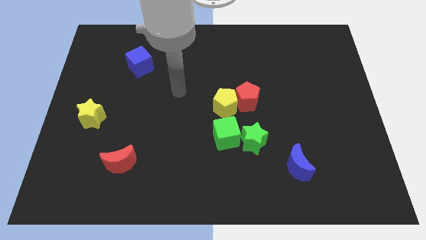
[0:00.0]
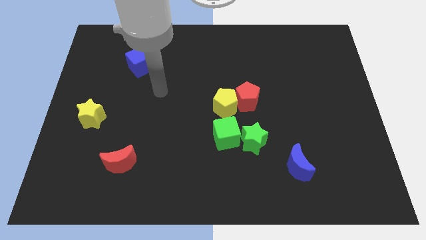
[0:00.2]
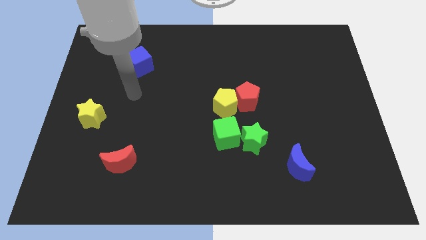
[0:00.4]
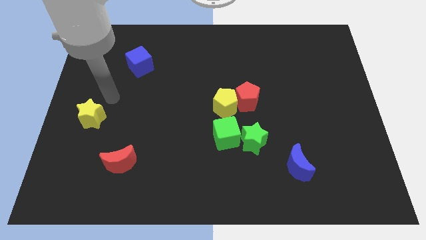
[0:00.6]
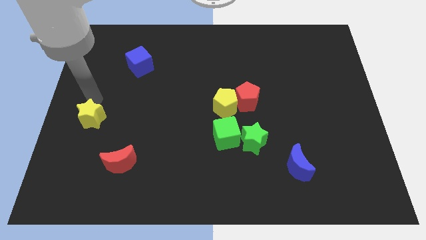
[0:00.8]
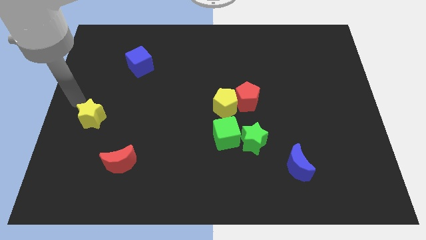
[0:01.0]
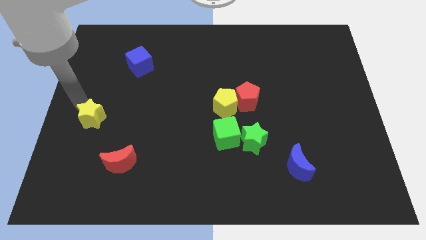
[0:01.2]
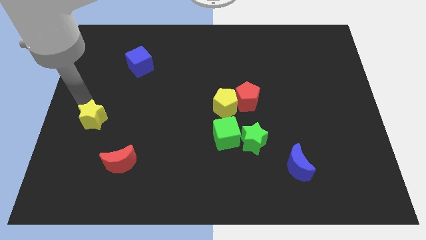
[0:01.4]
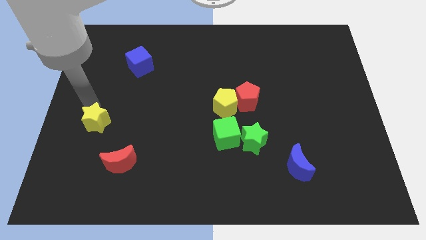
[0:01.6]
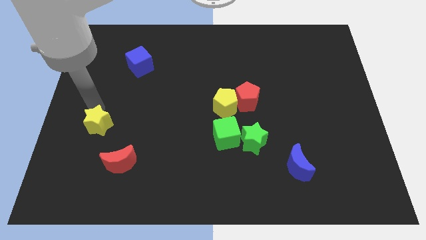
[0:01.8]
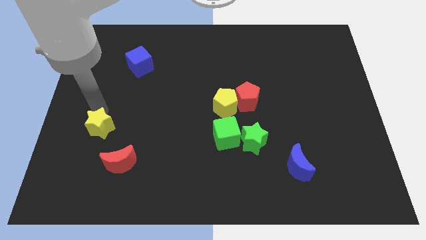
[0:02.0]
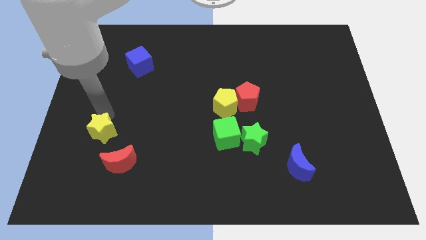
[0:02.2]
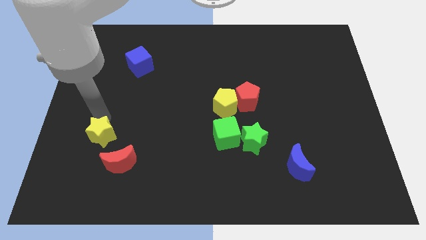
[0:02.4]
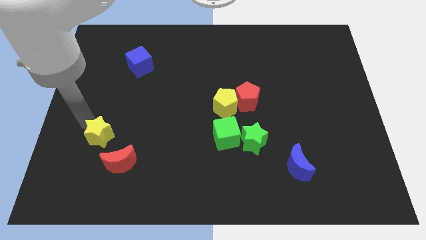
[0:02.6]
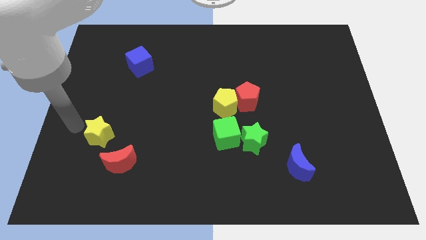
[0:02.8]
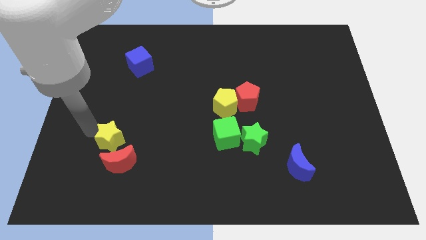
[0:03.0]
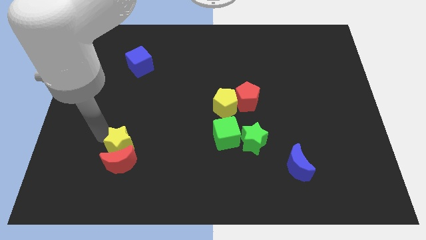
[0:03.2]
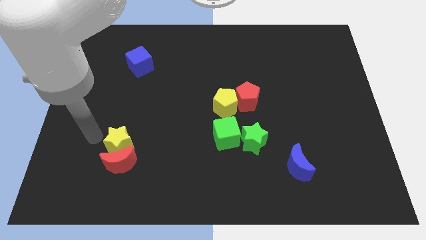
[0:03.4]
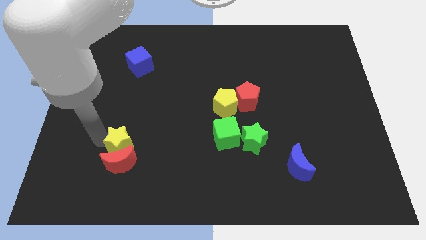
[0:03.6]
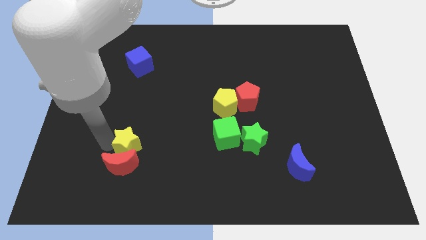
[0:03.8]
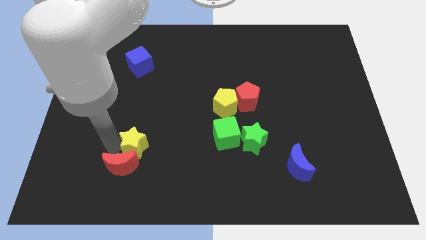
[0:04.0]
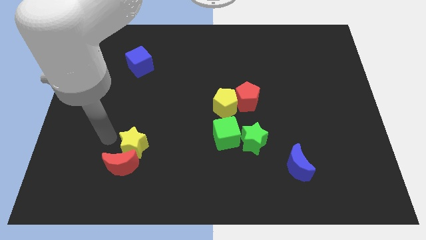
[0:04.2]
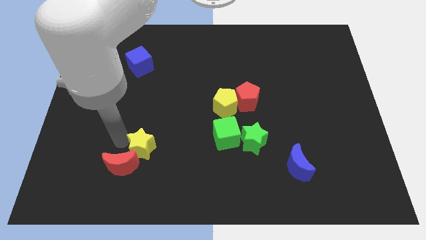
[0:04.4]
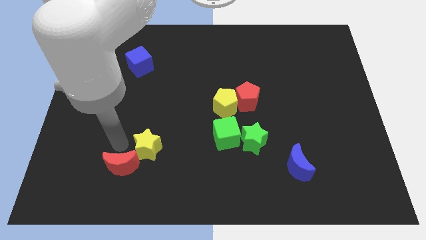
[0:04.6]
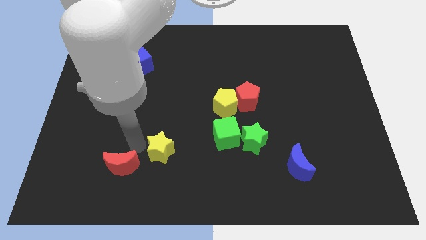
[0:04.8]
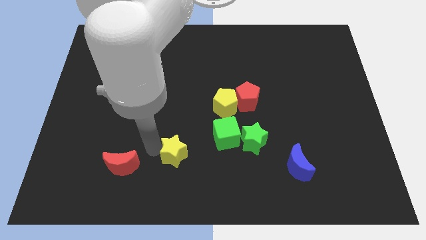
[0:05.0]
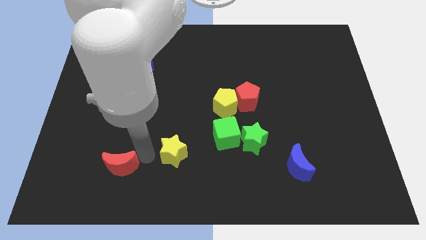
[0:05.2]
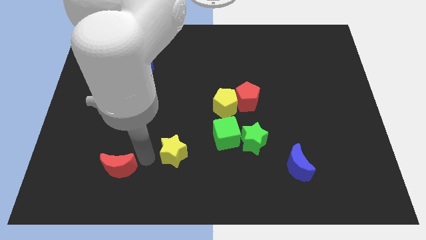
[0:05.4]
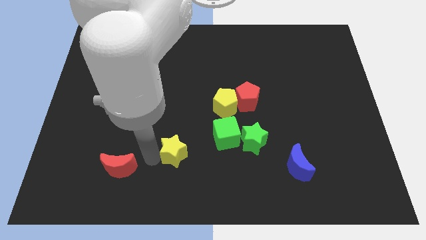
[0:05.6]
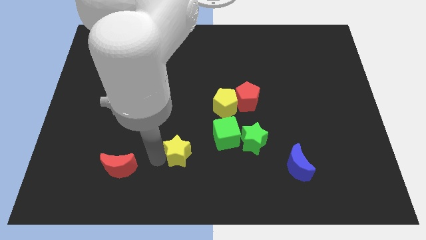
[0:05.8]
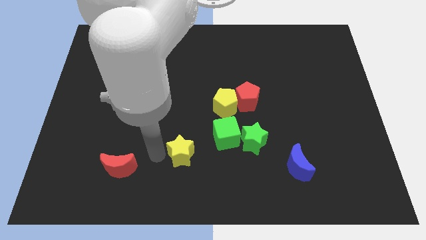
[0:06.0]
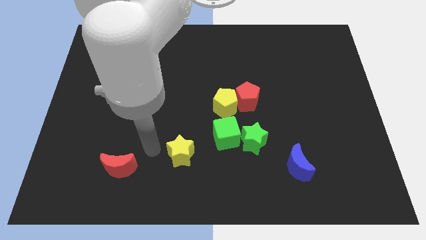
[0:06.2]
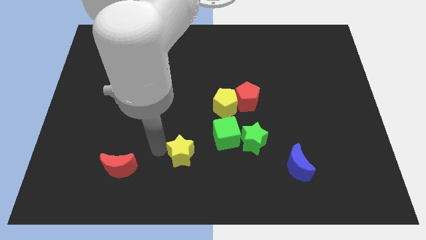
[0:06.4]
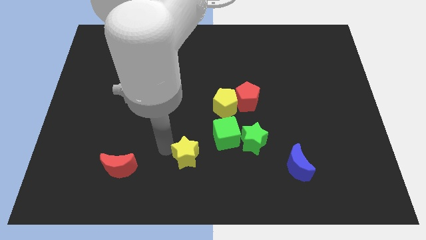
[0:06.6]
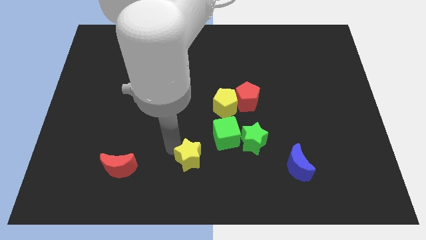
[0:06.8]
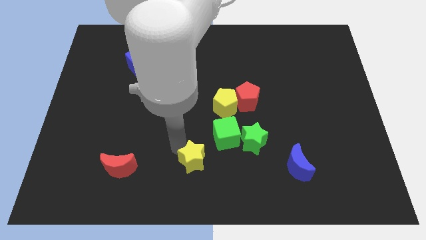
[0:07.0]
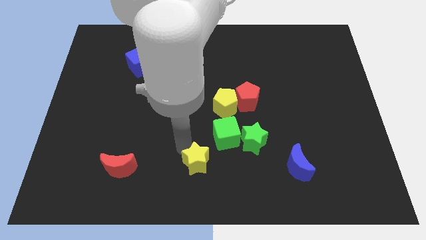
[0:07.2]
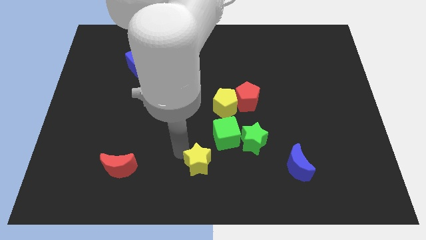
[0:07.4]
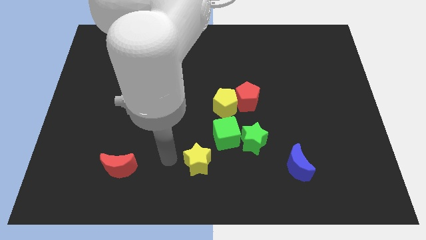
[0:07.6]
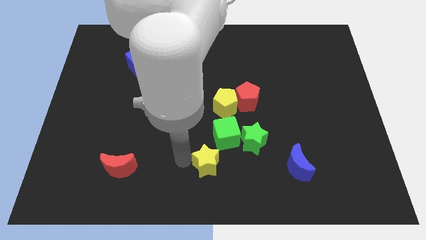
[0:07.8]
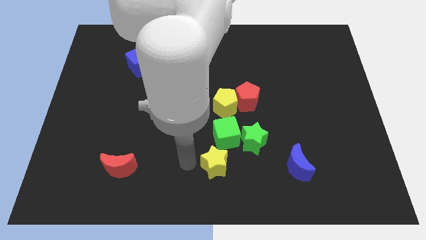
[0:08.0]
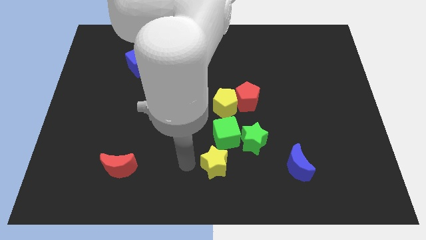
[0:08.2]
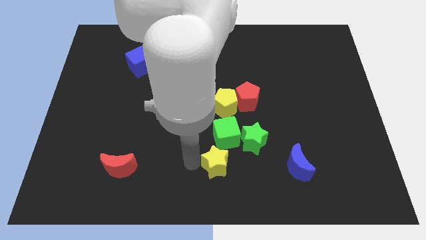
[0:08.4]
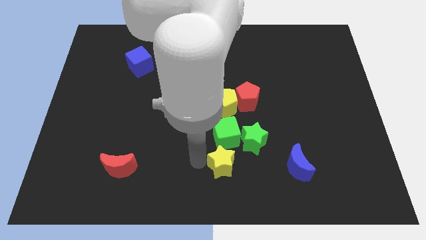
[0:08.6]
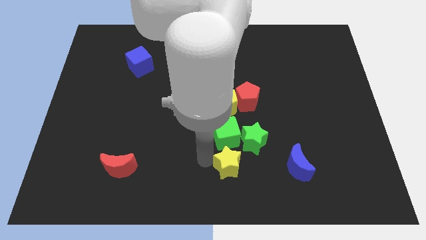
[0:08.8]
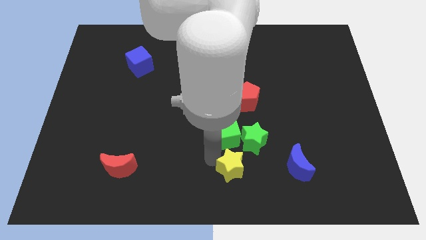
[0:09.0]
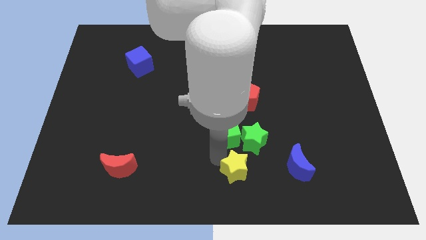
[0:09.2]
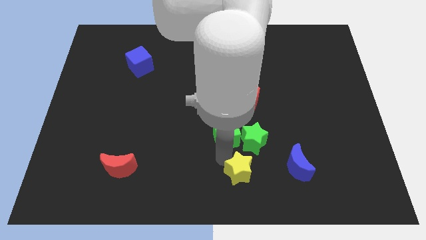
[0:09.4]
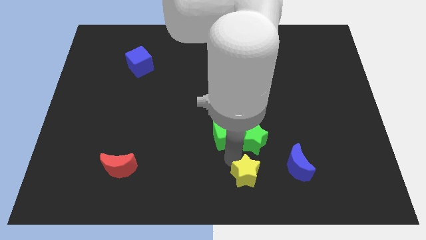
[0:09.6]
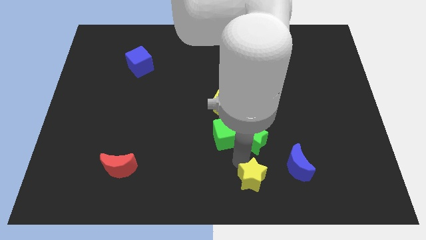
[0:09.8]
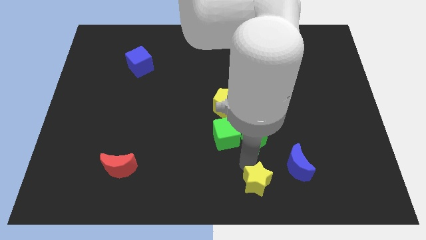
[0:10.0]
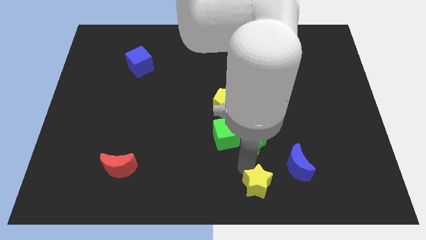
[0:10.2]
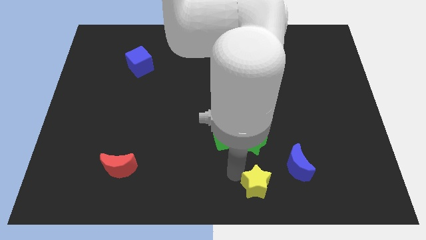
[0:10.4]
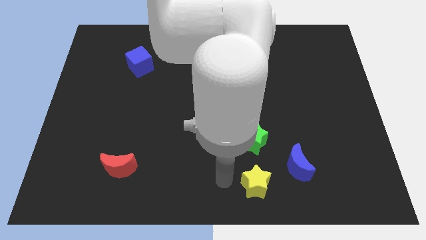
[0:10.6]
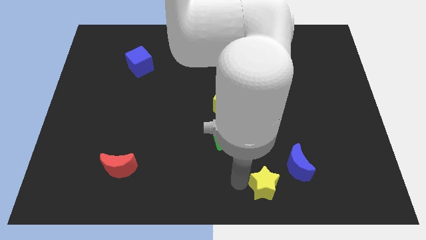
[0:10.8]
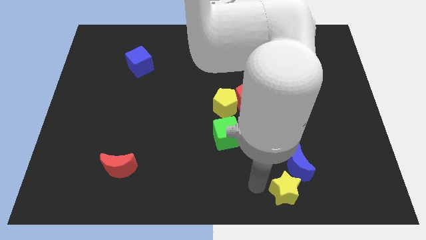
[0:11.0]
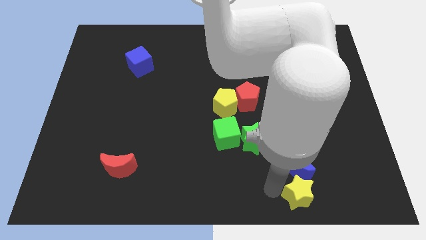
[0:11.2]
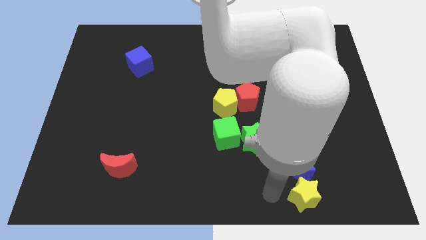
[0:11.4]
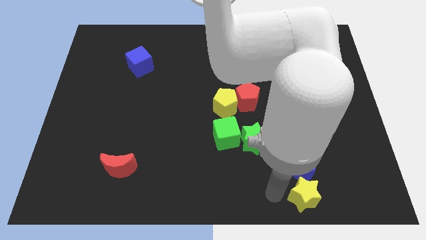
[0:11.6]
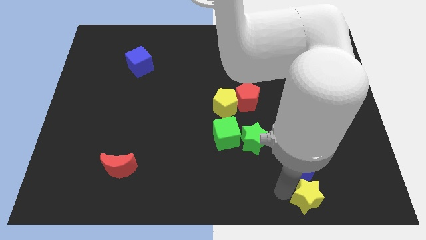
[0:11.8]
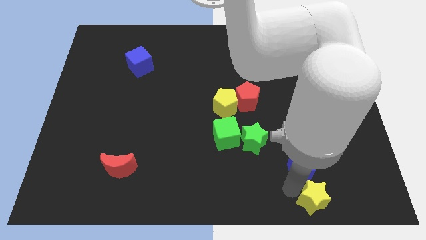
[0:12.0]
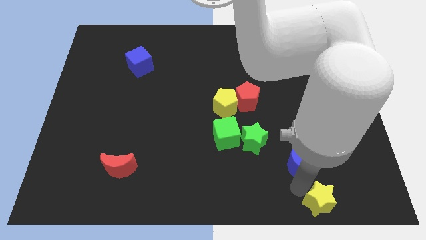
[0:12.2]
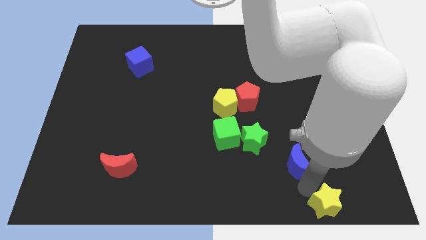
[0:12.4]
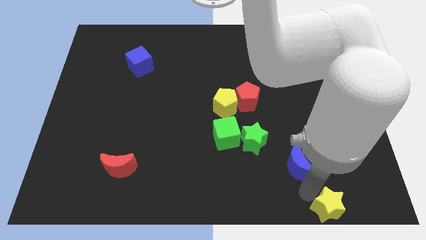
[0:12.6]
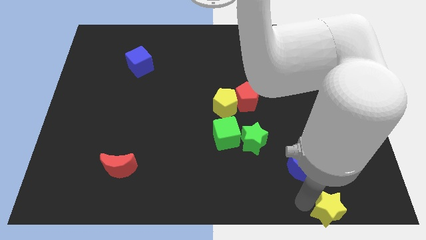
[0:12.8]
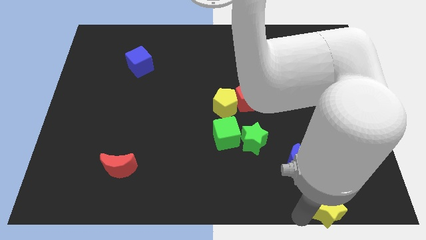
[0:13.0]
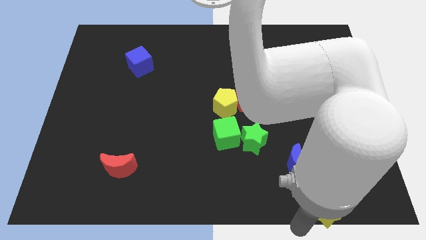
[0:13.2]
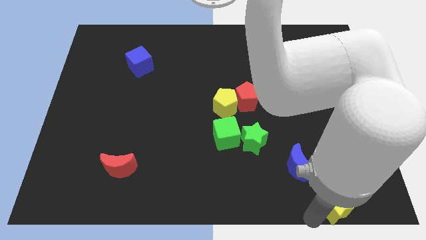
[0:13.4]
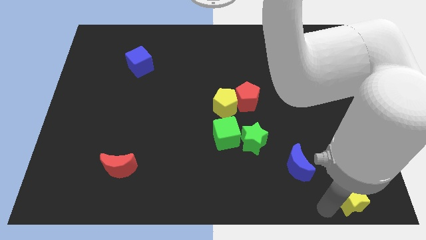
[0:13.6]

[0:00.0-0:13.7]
put the yellow star to the bottom right
